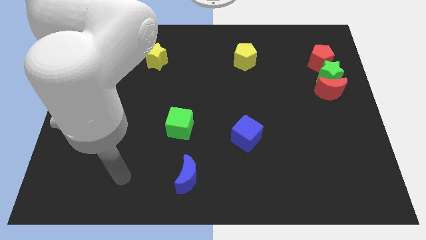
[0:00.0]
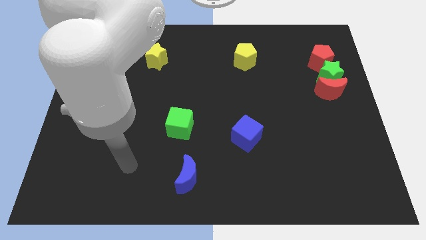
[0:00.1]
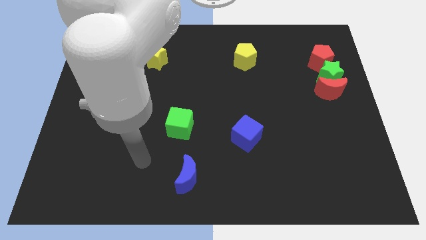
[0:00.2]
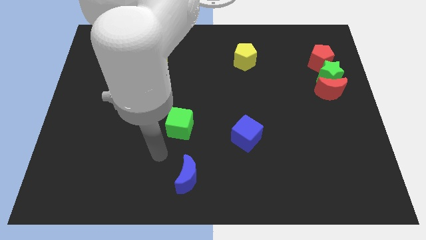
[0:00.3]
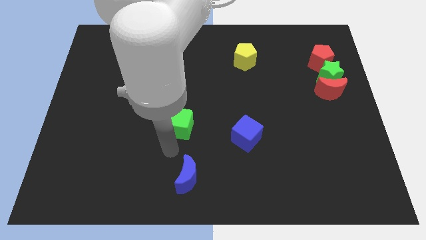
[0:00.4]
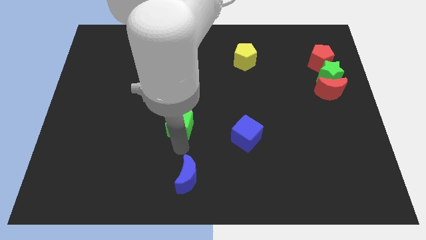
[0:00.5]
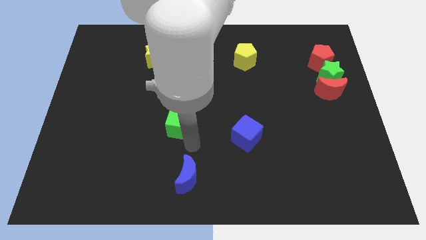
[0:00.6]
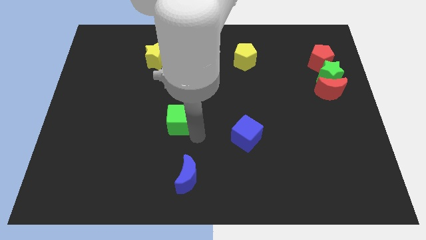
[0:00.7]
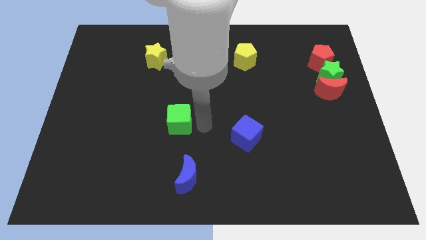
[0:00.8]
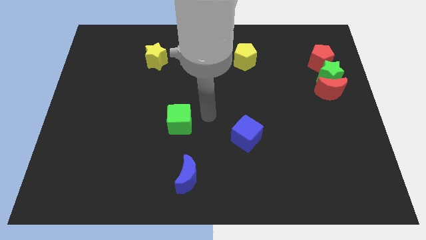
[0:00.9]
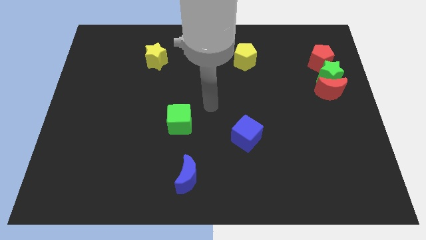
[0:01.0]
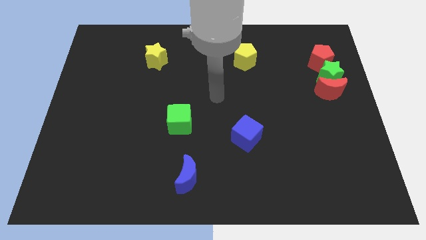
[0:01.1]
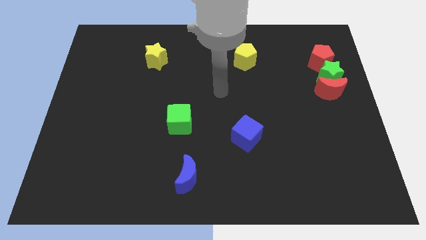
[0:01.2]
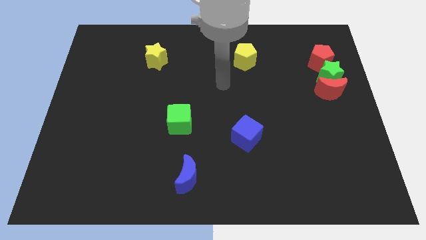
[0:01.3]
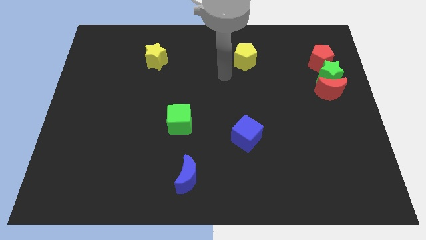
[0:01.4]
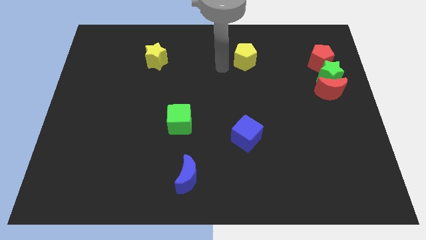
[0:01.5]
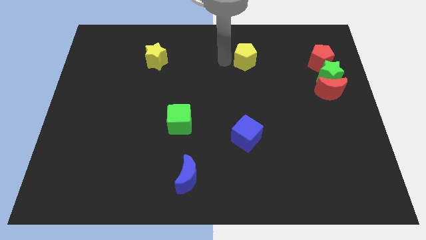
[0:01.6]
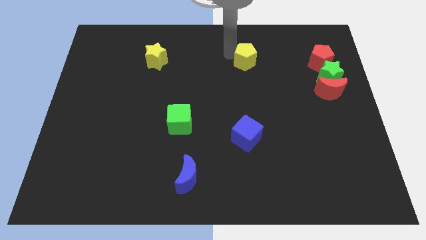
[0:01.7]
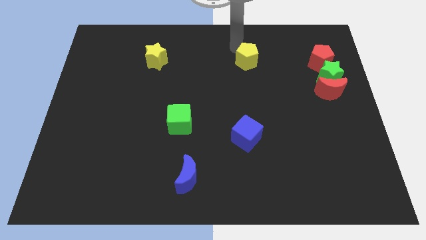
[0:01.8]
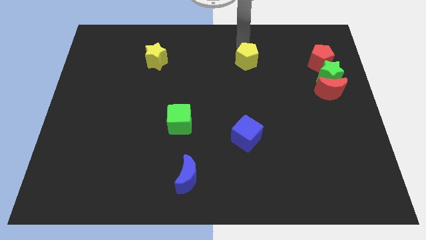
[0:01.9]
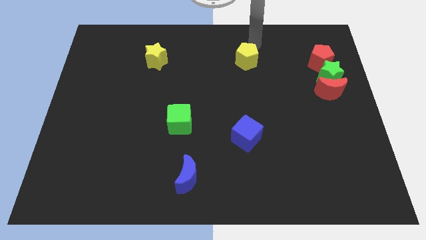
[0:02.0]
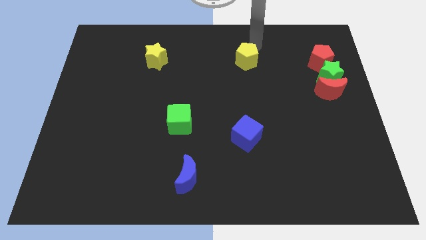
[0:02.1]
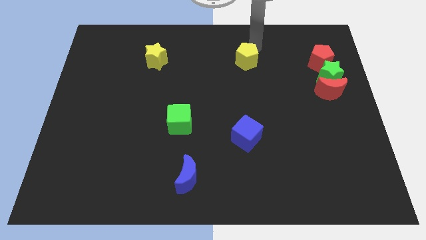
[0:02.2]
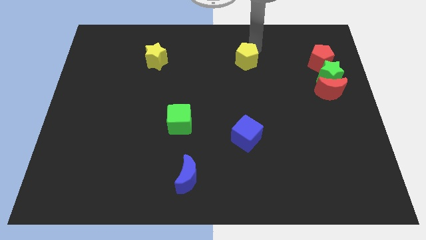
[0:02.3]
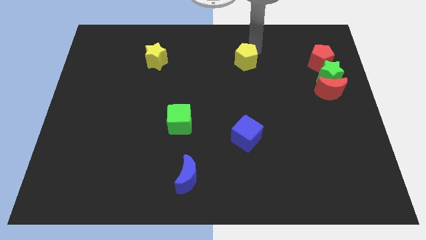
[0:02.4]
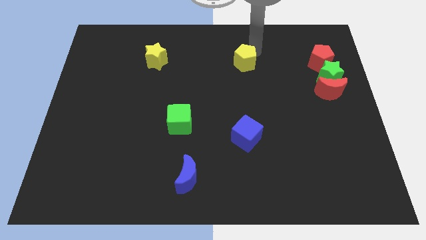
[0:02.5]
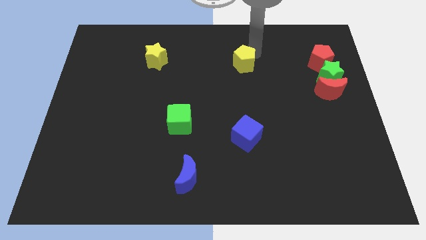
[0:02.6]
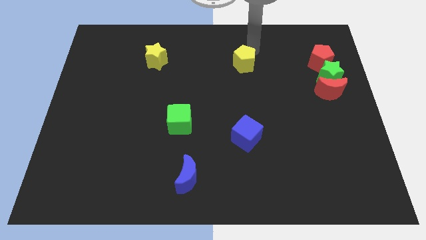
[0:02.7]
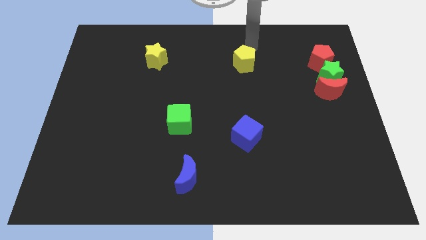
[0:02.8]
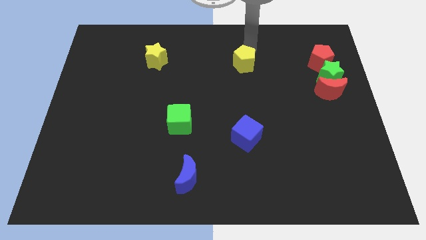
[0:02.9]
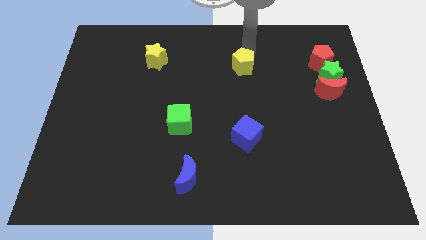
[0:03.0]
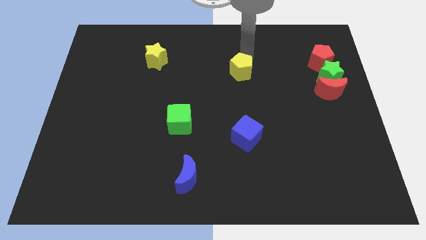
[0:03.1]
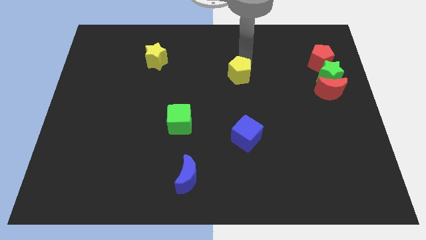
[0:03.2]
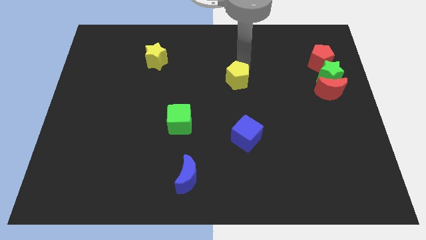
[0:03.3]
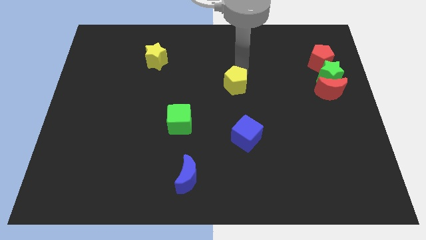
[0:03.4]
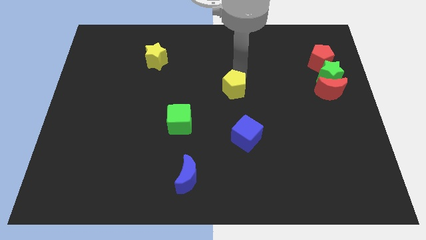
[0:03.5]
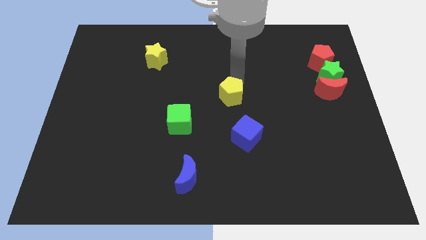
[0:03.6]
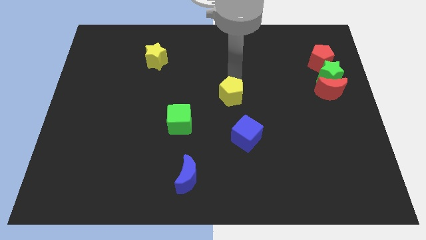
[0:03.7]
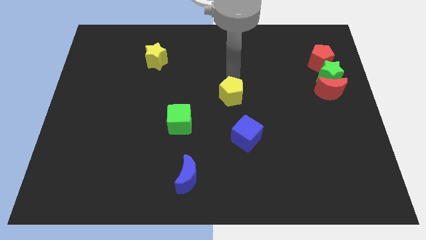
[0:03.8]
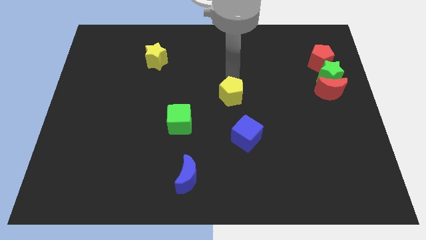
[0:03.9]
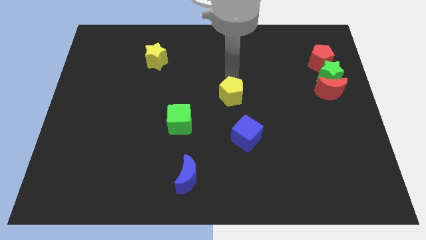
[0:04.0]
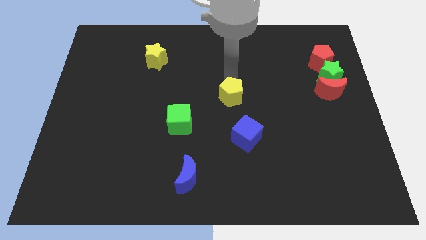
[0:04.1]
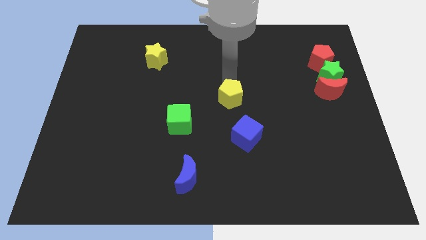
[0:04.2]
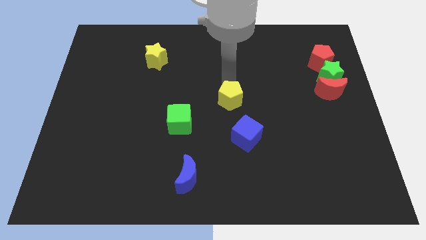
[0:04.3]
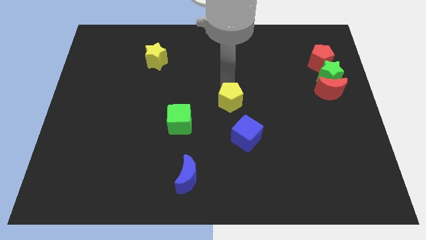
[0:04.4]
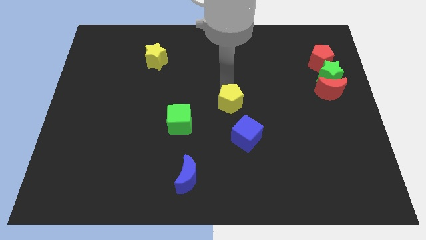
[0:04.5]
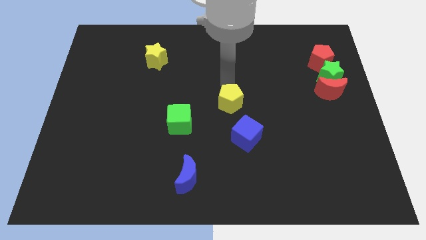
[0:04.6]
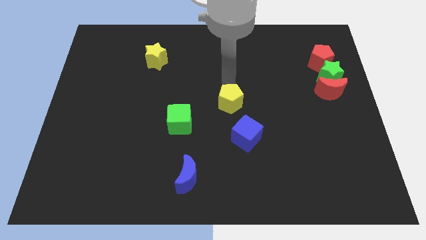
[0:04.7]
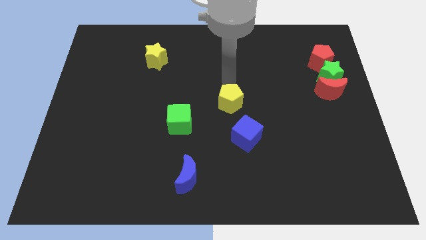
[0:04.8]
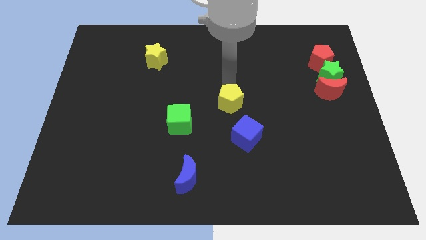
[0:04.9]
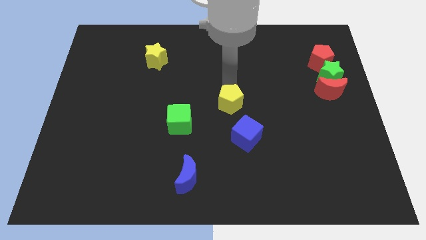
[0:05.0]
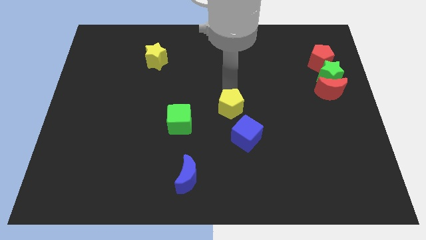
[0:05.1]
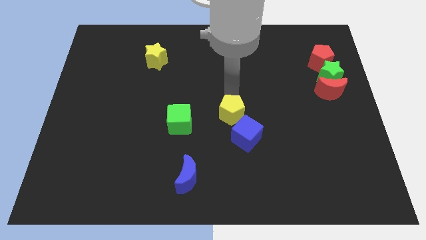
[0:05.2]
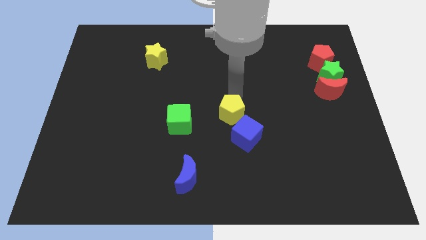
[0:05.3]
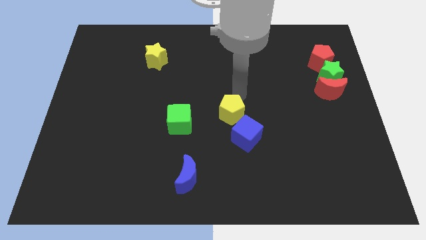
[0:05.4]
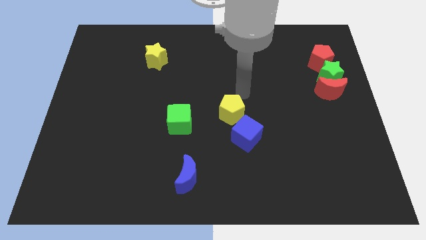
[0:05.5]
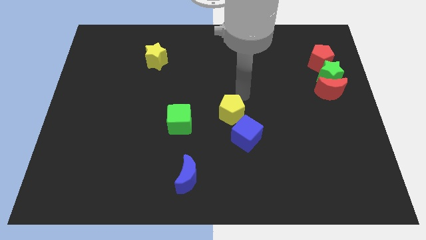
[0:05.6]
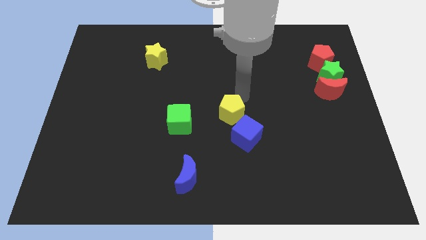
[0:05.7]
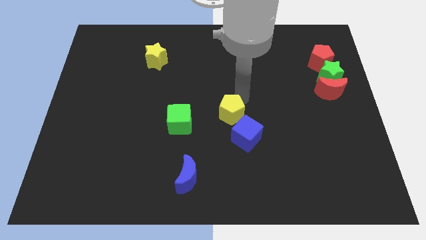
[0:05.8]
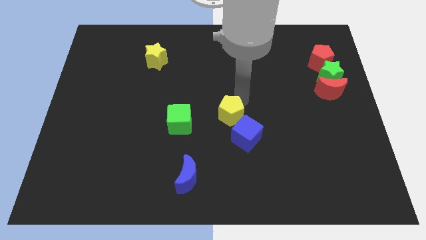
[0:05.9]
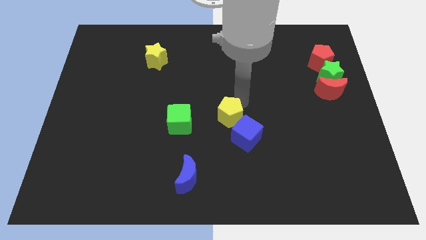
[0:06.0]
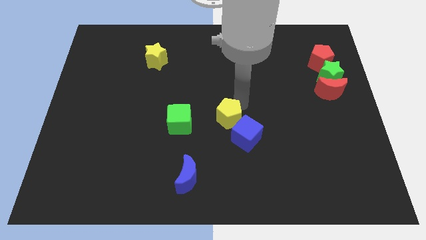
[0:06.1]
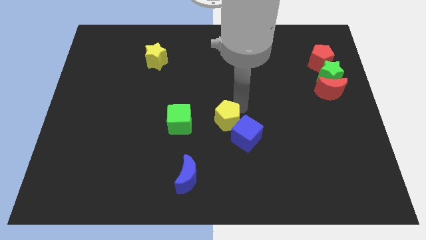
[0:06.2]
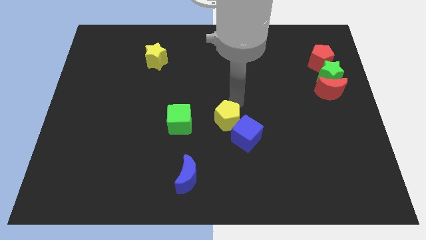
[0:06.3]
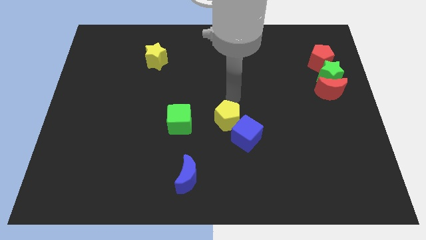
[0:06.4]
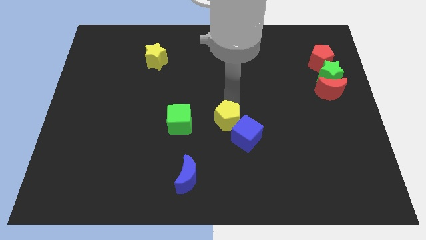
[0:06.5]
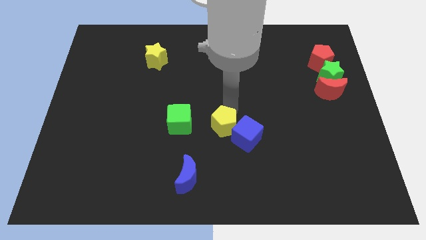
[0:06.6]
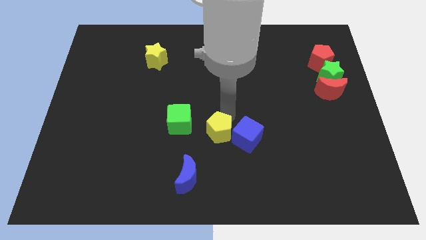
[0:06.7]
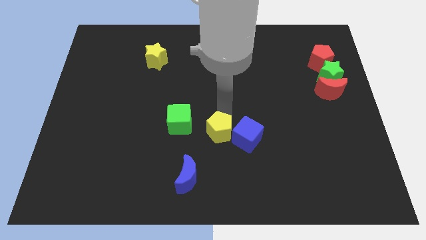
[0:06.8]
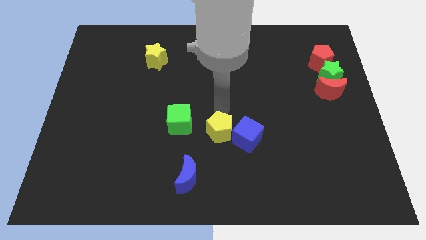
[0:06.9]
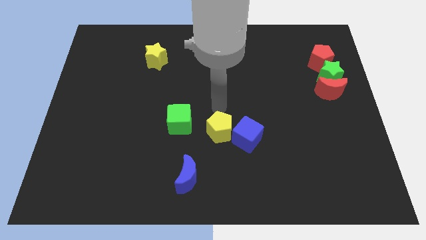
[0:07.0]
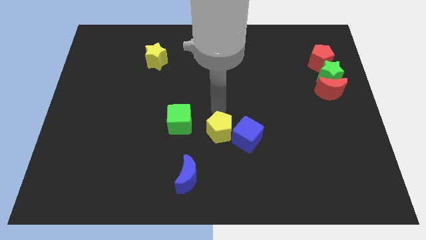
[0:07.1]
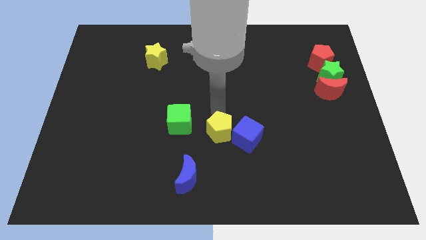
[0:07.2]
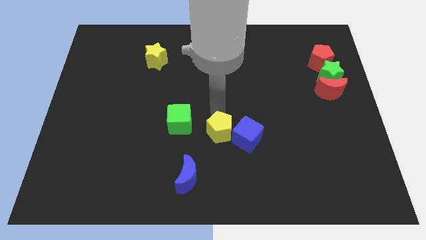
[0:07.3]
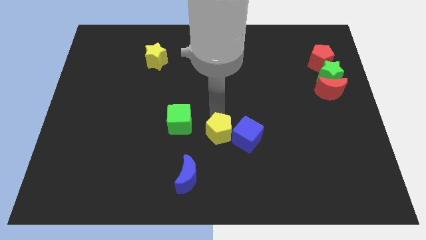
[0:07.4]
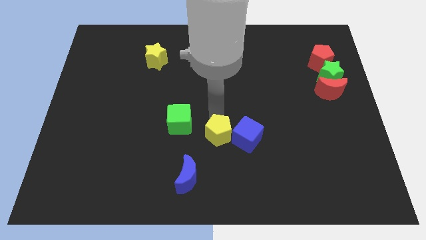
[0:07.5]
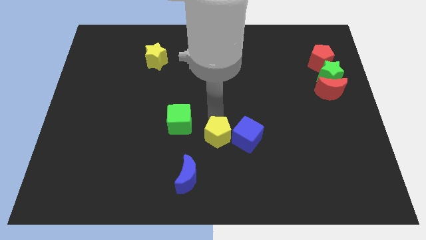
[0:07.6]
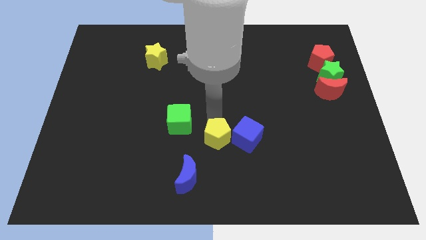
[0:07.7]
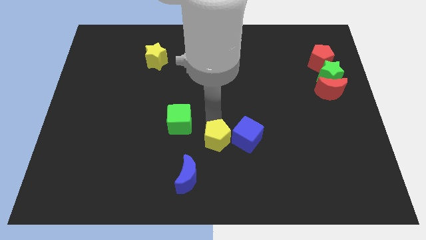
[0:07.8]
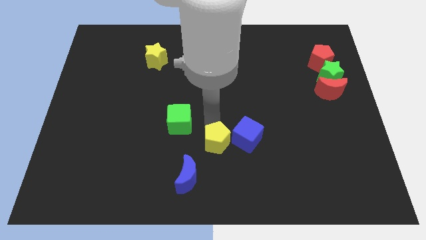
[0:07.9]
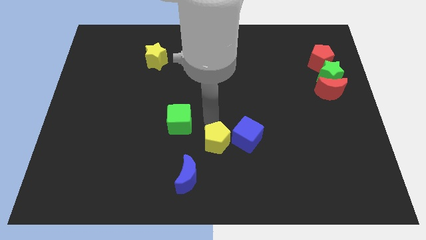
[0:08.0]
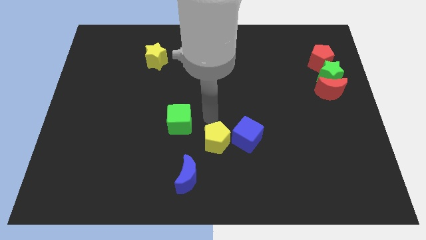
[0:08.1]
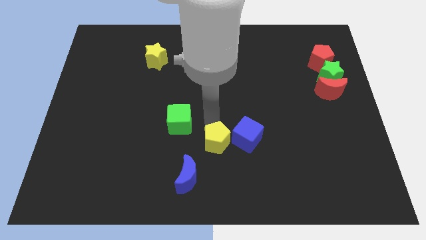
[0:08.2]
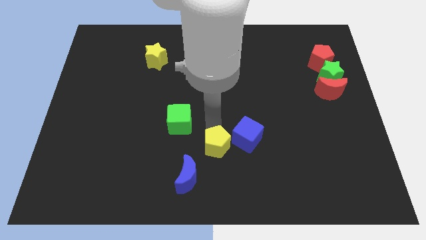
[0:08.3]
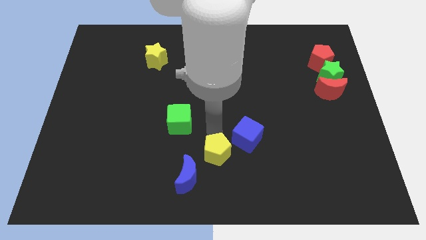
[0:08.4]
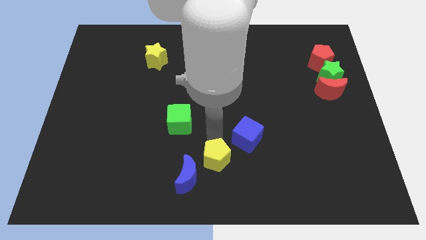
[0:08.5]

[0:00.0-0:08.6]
move the yellow pentagon to the bottom
